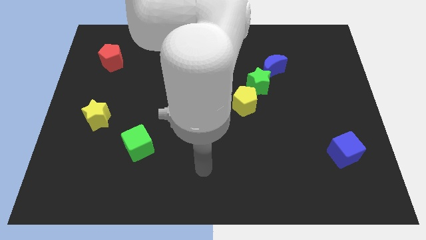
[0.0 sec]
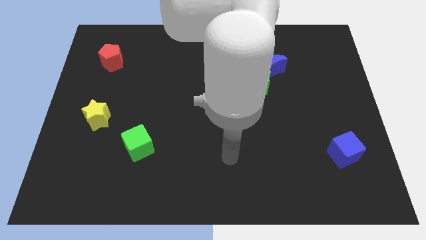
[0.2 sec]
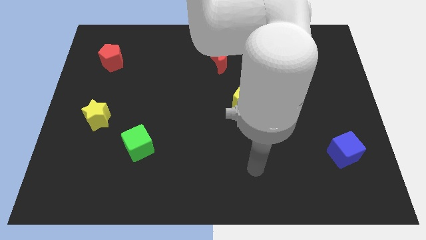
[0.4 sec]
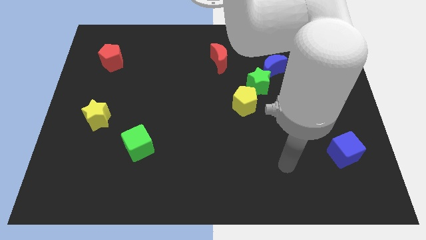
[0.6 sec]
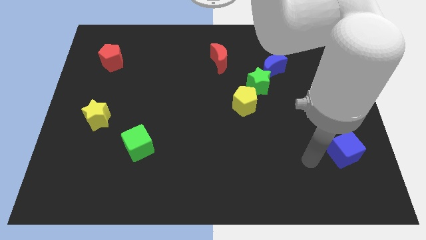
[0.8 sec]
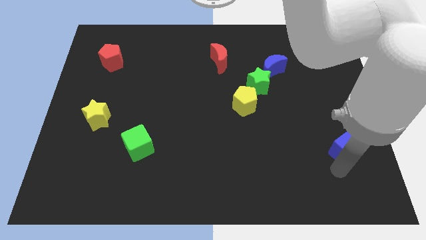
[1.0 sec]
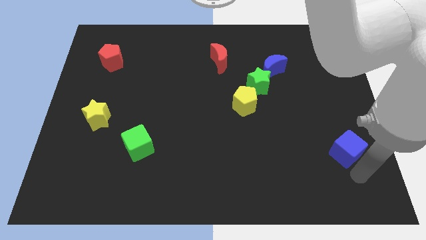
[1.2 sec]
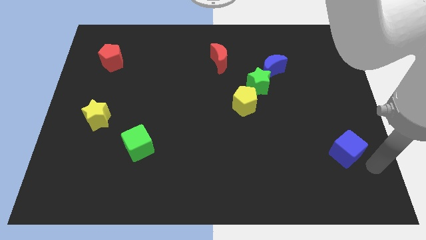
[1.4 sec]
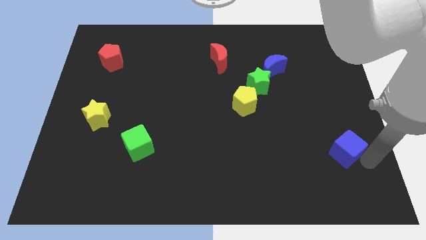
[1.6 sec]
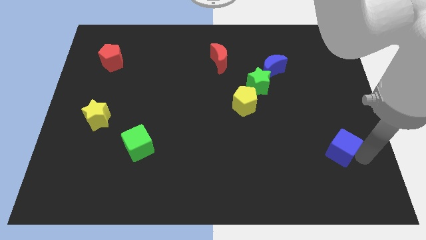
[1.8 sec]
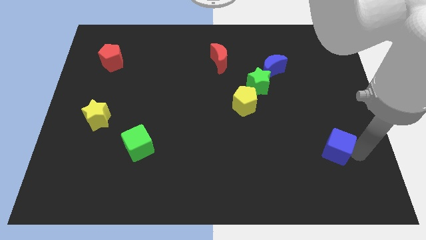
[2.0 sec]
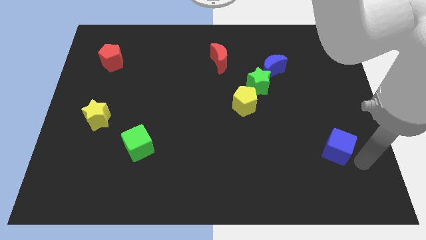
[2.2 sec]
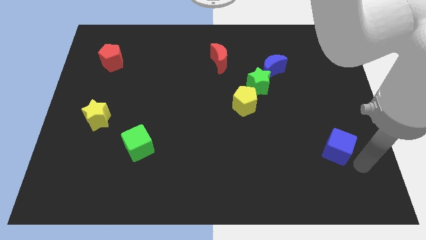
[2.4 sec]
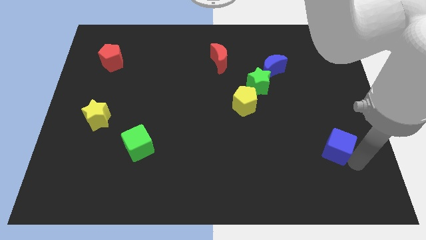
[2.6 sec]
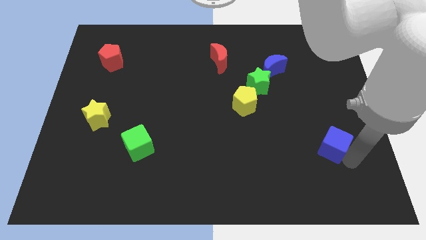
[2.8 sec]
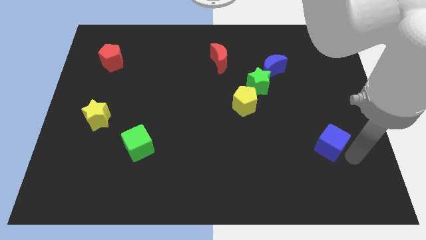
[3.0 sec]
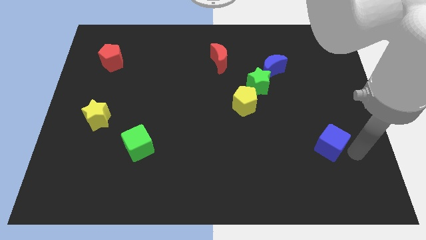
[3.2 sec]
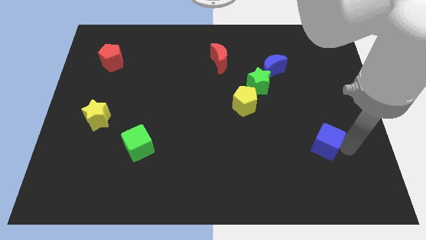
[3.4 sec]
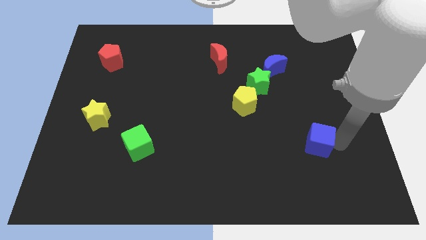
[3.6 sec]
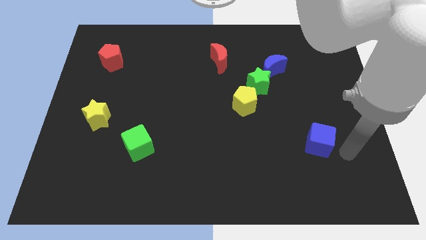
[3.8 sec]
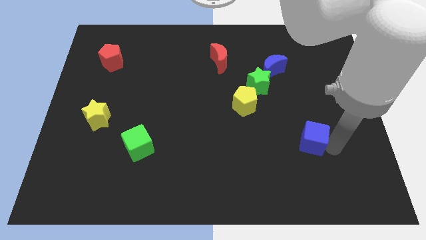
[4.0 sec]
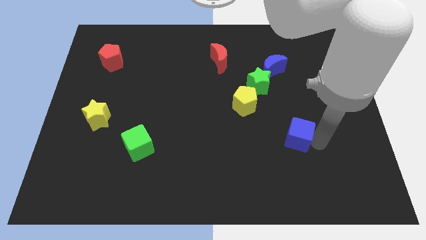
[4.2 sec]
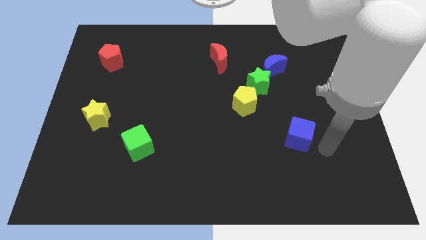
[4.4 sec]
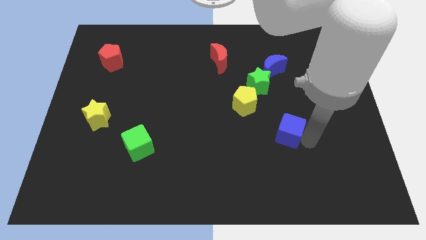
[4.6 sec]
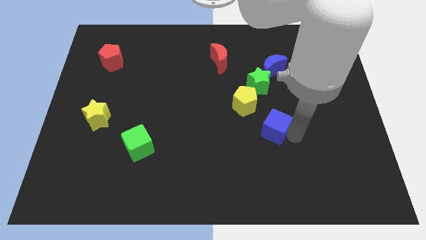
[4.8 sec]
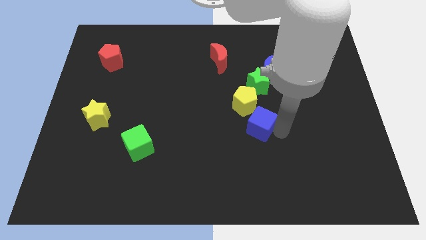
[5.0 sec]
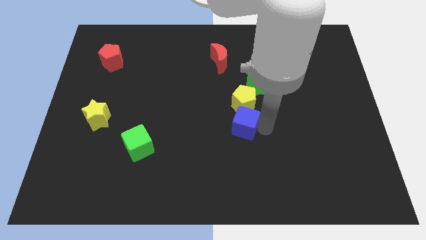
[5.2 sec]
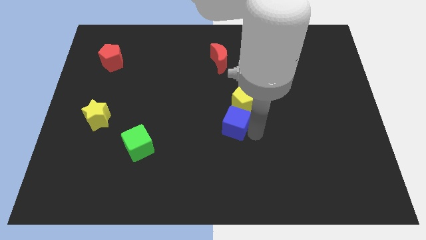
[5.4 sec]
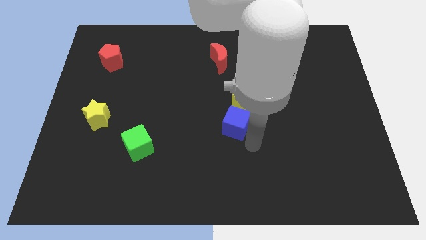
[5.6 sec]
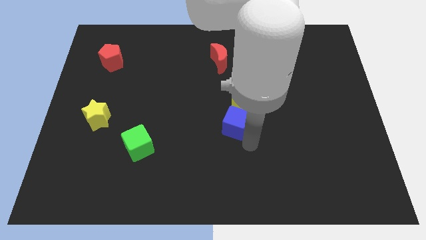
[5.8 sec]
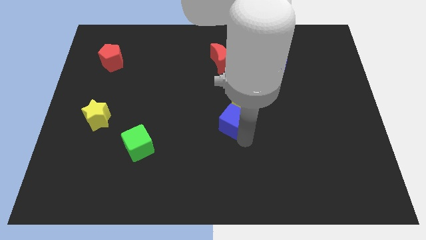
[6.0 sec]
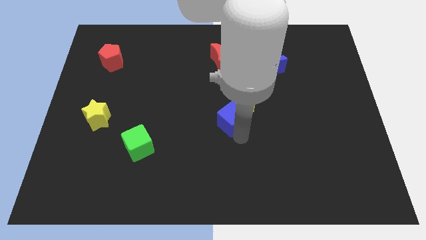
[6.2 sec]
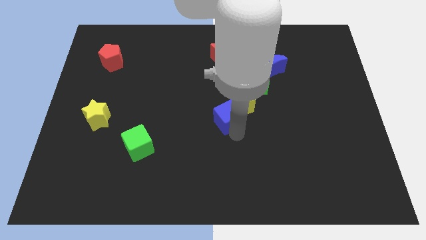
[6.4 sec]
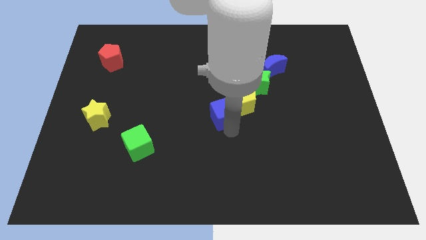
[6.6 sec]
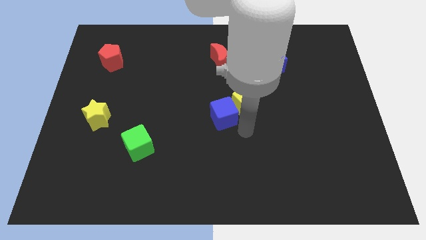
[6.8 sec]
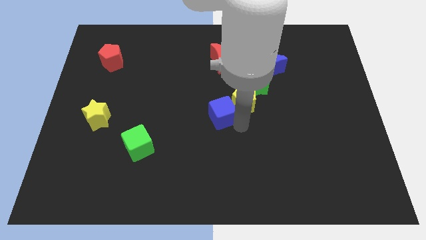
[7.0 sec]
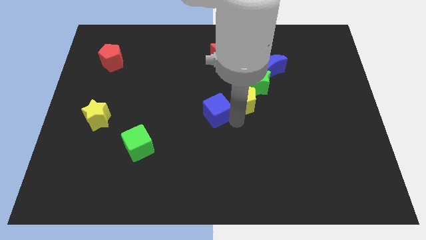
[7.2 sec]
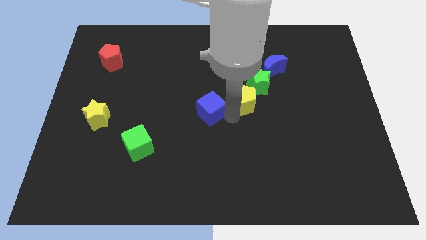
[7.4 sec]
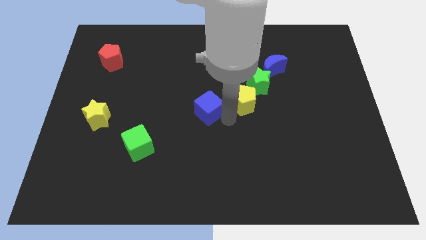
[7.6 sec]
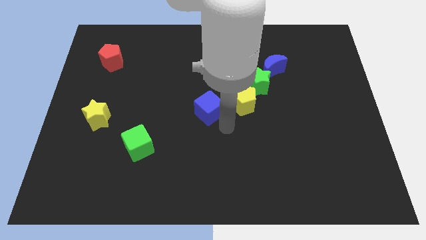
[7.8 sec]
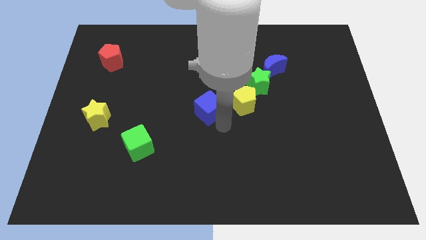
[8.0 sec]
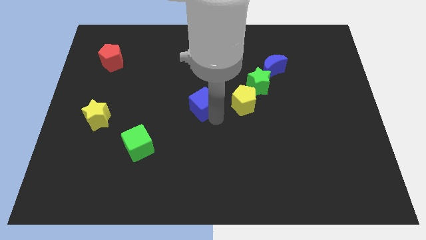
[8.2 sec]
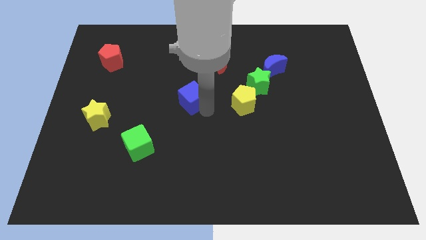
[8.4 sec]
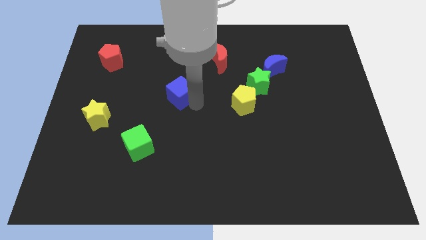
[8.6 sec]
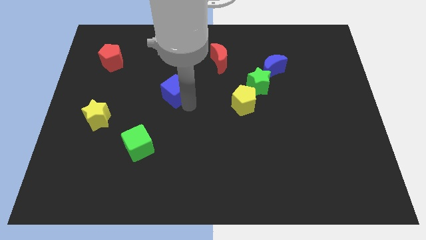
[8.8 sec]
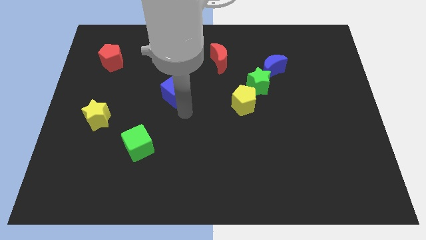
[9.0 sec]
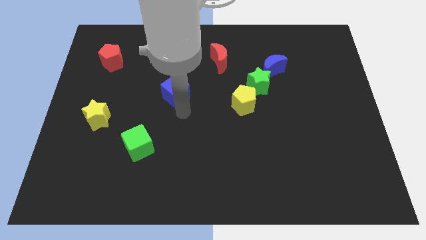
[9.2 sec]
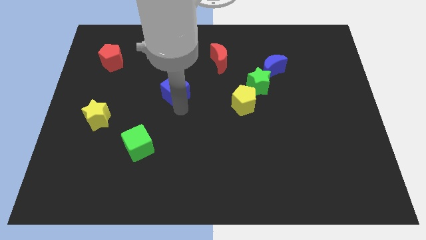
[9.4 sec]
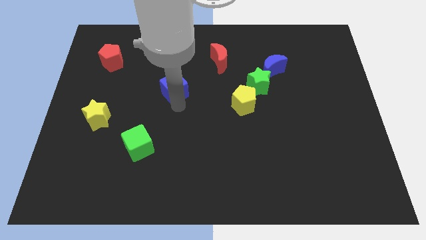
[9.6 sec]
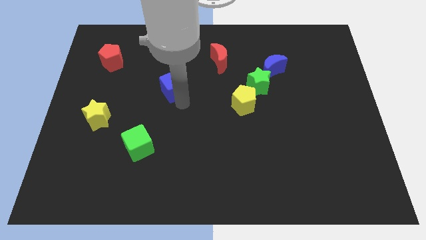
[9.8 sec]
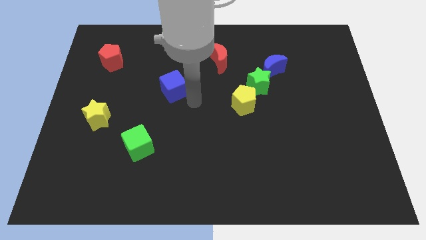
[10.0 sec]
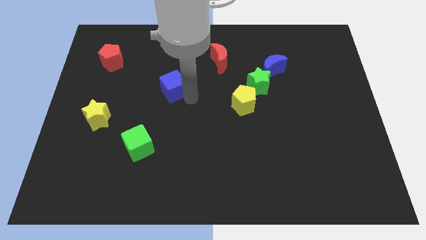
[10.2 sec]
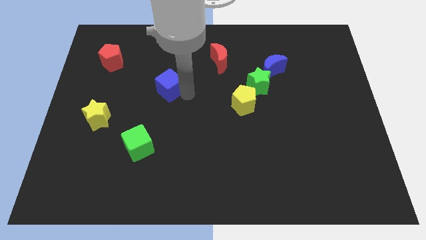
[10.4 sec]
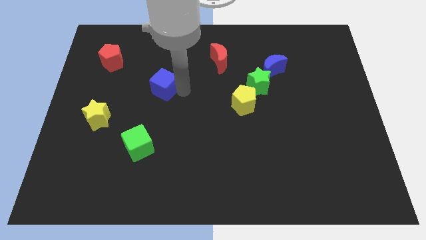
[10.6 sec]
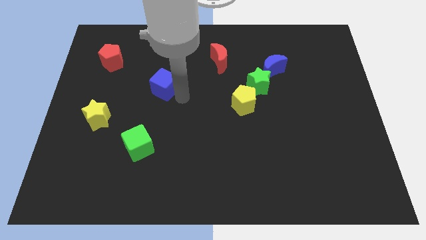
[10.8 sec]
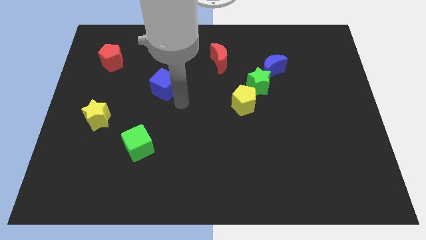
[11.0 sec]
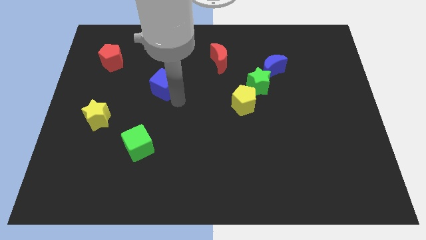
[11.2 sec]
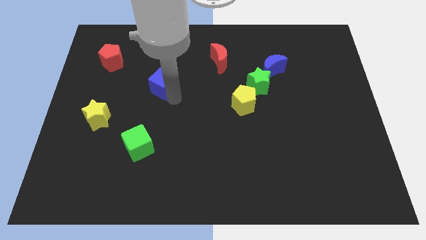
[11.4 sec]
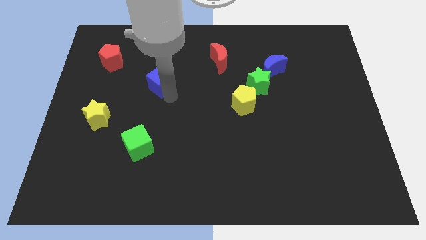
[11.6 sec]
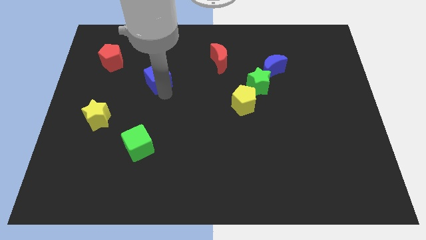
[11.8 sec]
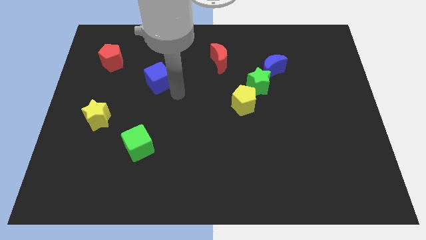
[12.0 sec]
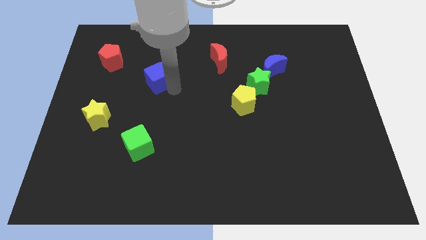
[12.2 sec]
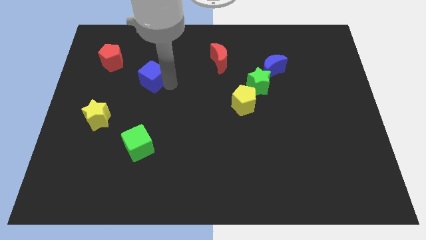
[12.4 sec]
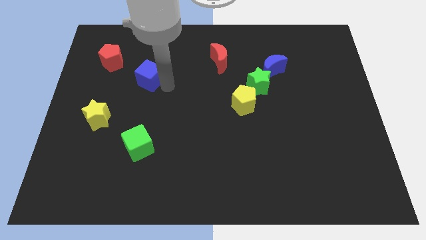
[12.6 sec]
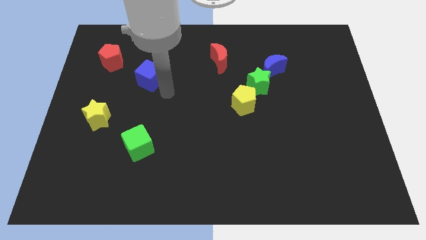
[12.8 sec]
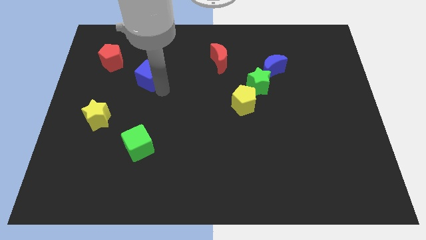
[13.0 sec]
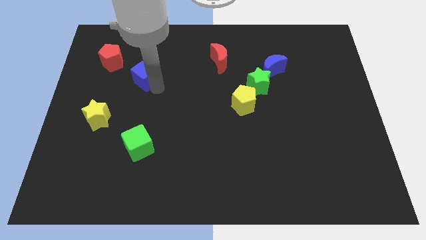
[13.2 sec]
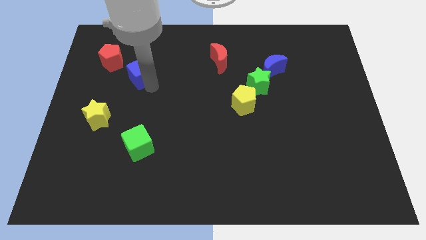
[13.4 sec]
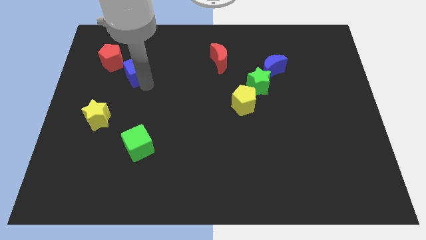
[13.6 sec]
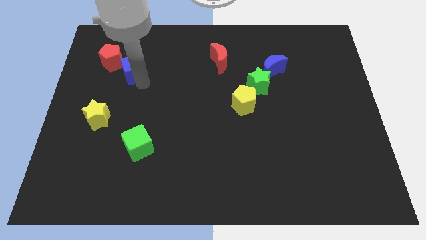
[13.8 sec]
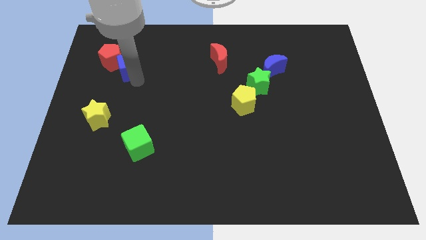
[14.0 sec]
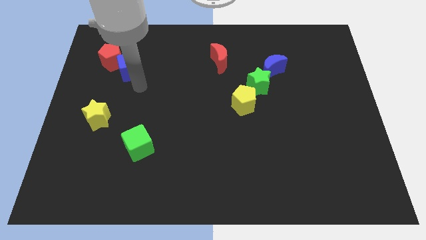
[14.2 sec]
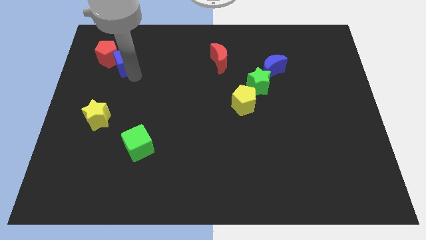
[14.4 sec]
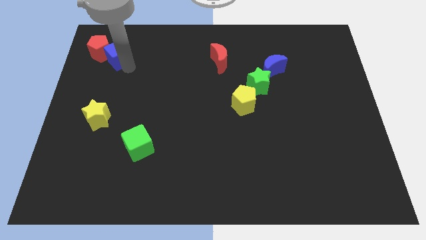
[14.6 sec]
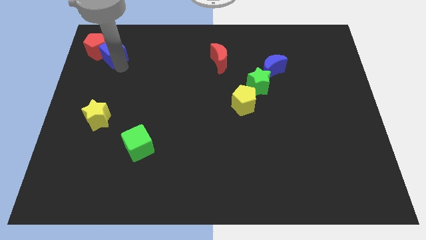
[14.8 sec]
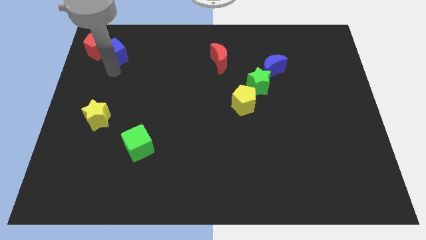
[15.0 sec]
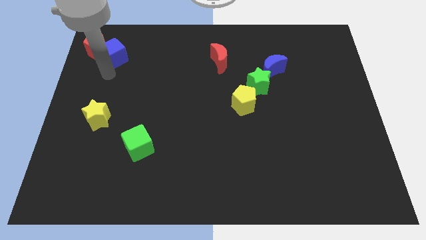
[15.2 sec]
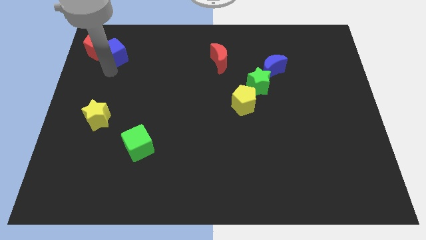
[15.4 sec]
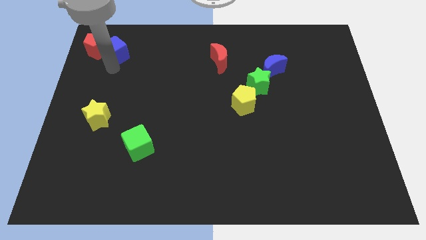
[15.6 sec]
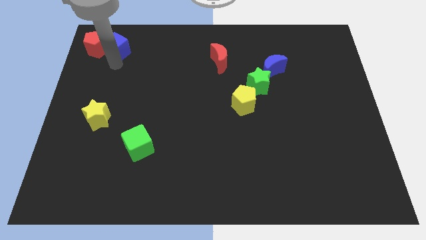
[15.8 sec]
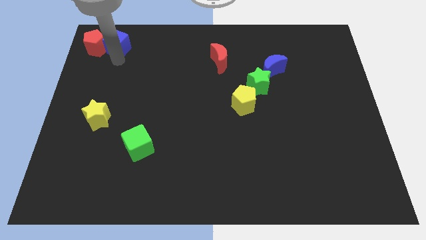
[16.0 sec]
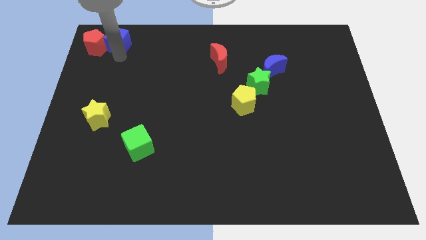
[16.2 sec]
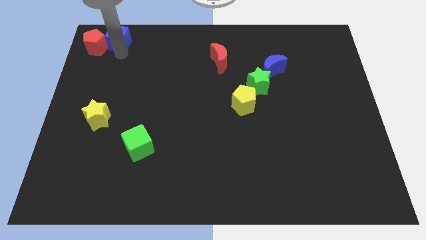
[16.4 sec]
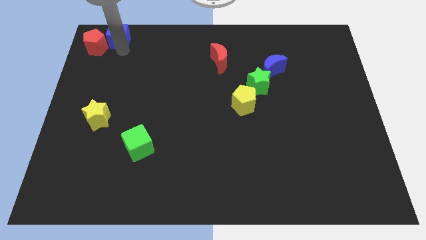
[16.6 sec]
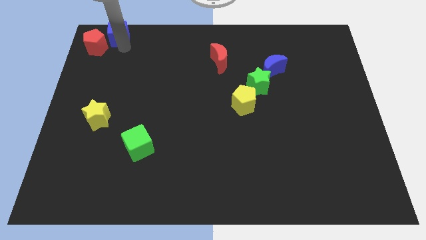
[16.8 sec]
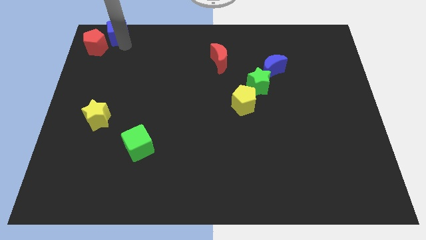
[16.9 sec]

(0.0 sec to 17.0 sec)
push the blue cube to the top left
